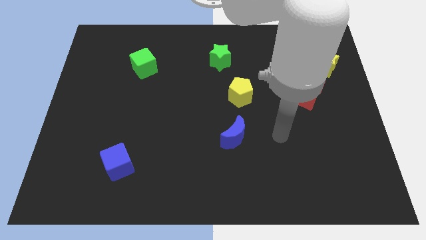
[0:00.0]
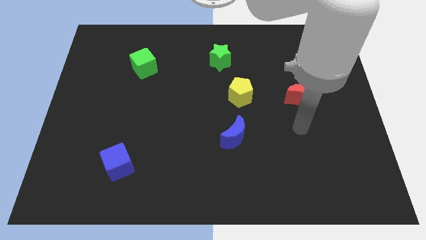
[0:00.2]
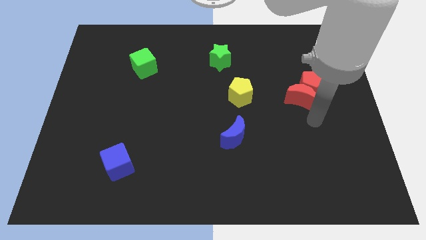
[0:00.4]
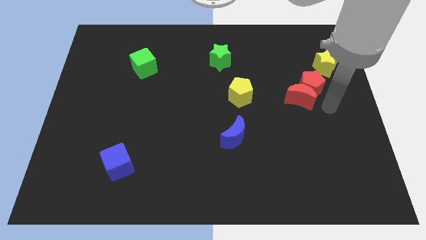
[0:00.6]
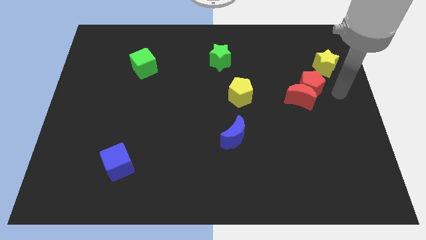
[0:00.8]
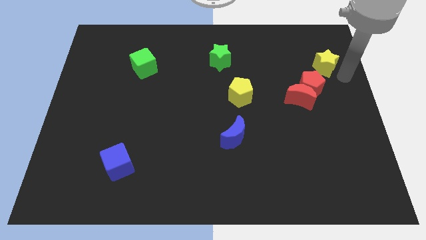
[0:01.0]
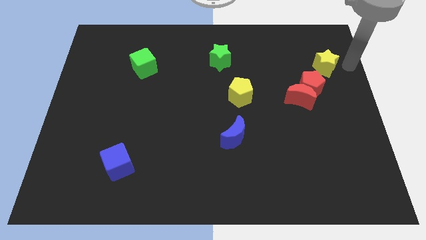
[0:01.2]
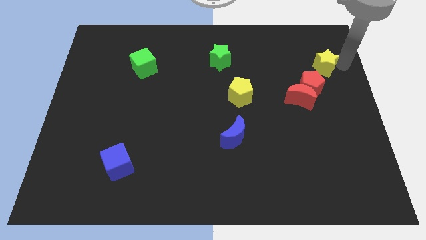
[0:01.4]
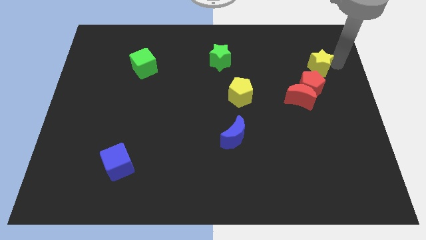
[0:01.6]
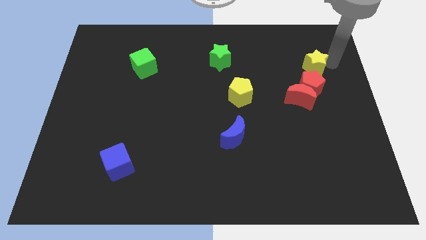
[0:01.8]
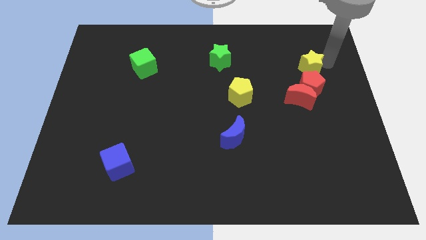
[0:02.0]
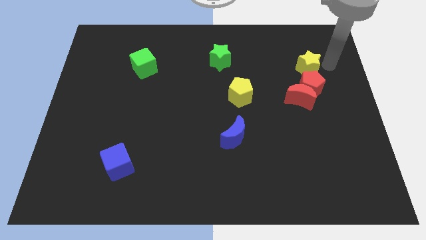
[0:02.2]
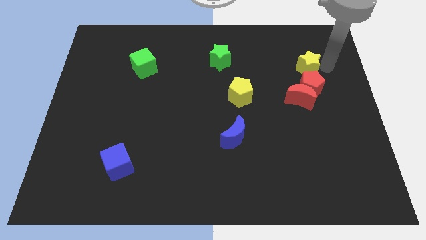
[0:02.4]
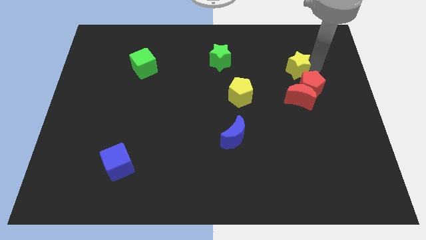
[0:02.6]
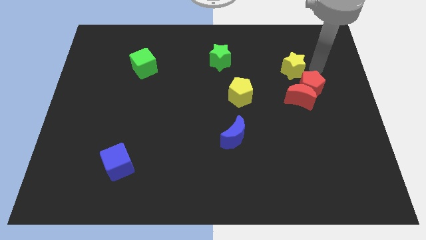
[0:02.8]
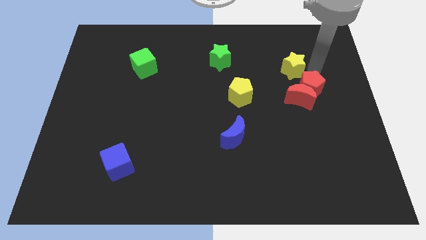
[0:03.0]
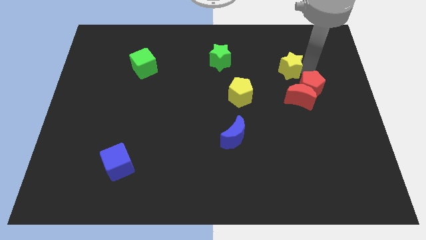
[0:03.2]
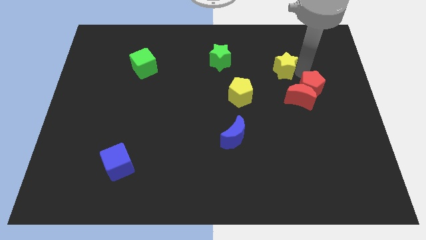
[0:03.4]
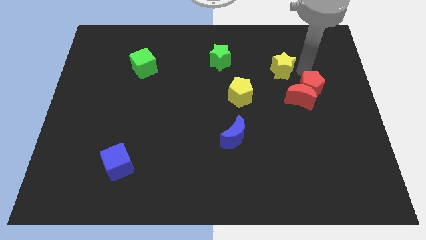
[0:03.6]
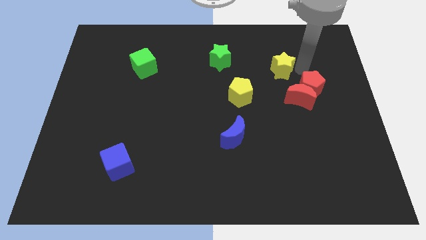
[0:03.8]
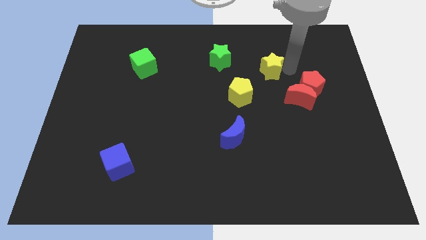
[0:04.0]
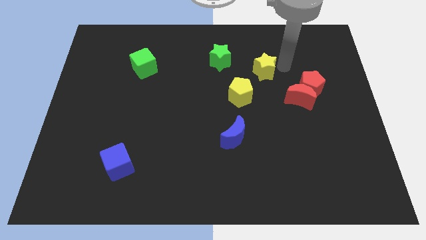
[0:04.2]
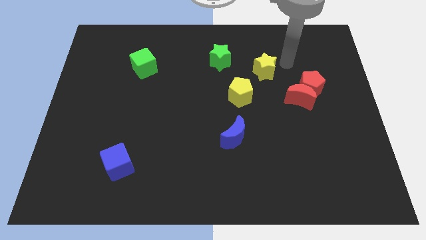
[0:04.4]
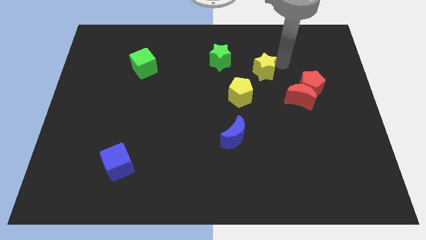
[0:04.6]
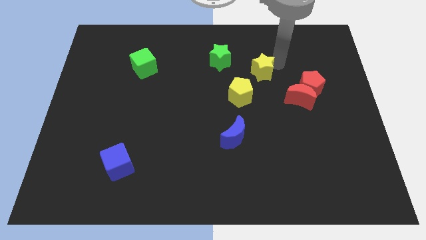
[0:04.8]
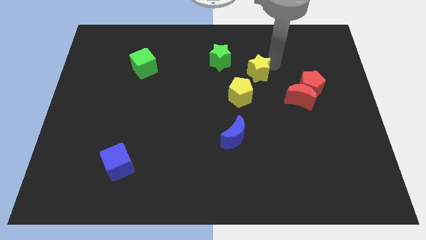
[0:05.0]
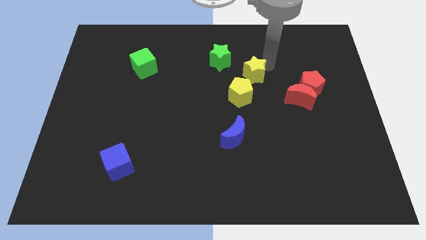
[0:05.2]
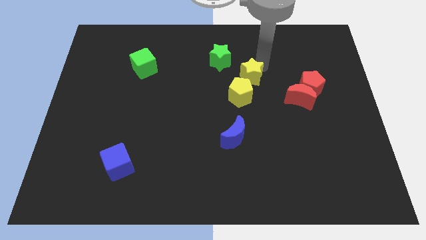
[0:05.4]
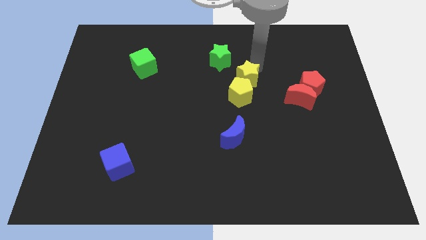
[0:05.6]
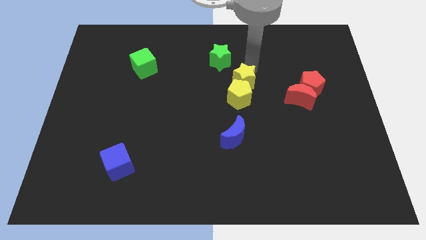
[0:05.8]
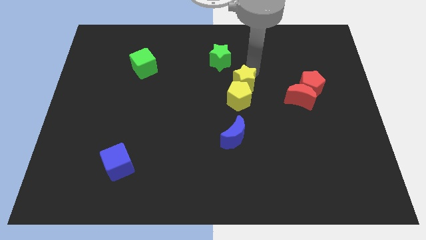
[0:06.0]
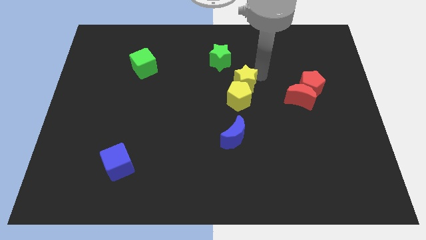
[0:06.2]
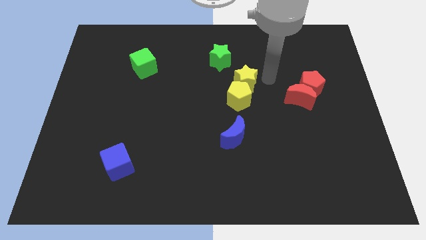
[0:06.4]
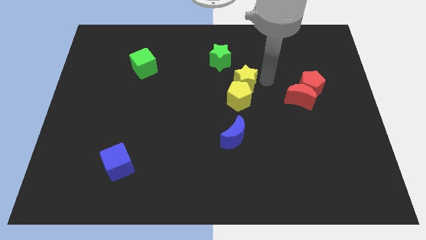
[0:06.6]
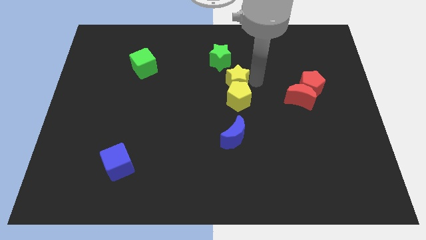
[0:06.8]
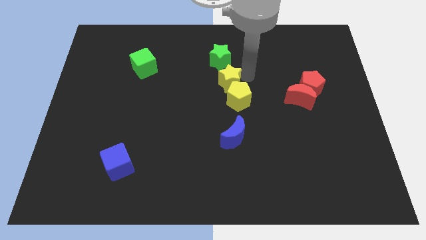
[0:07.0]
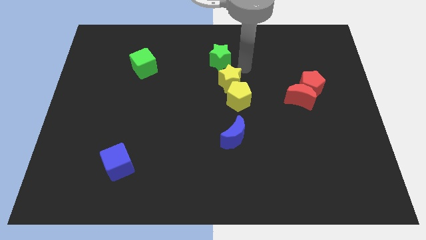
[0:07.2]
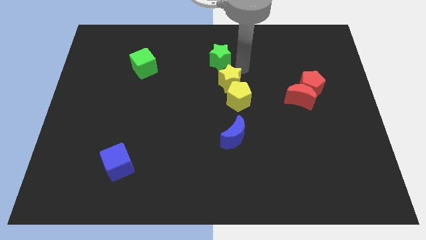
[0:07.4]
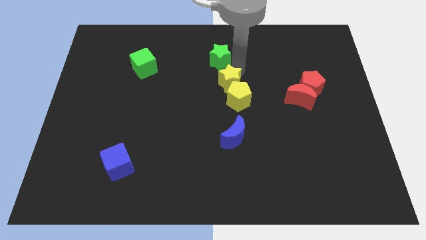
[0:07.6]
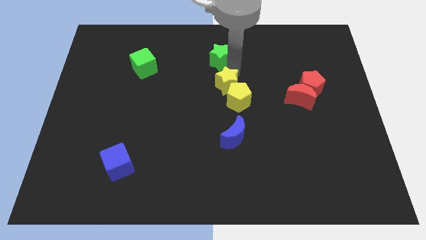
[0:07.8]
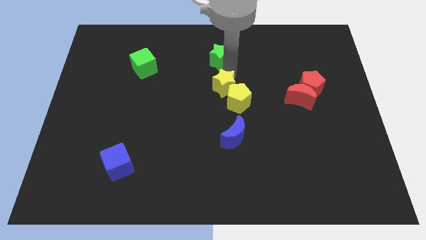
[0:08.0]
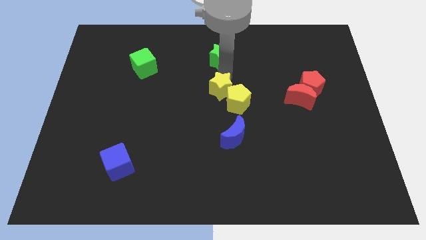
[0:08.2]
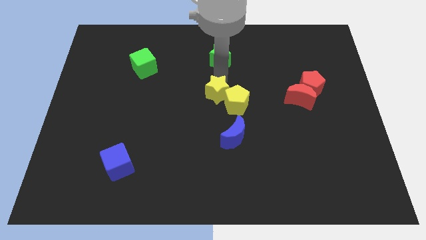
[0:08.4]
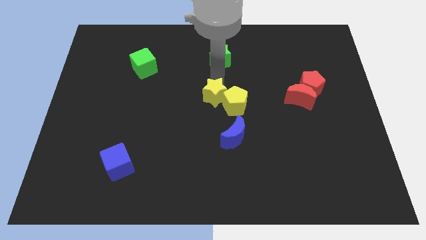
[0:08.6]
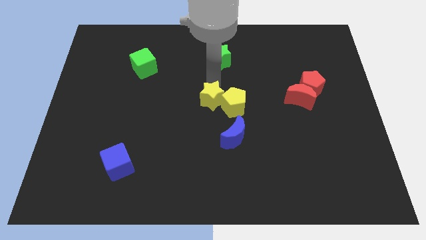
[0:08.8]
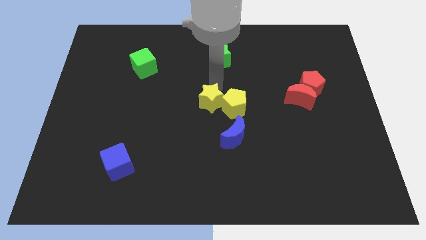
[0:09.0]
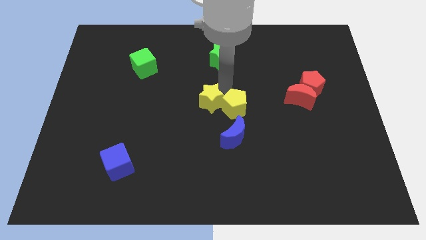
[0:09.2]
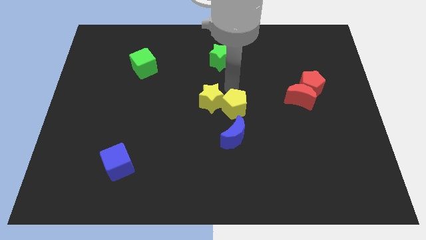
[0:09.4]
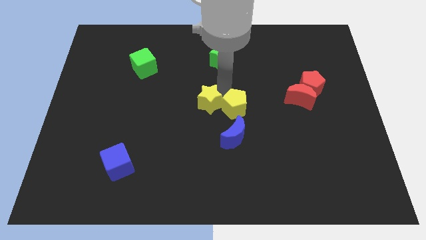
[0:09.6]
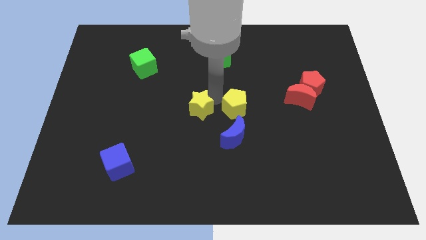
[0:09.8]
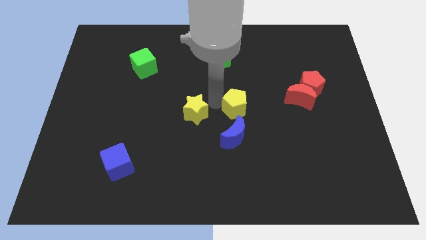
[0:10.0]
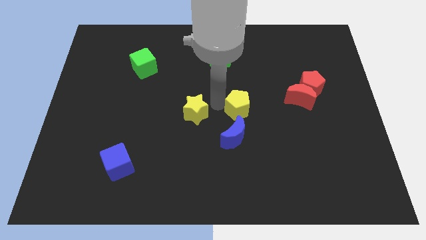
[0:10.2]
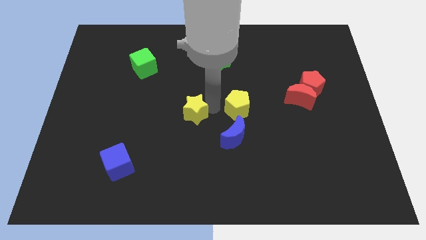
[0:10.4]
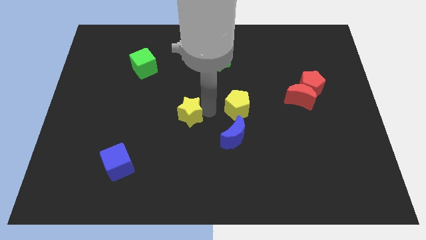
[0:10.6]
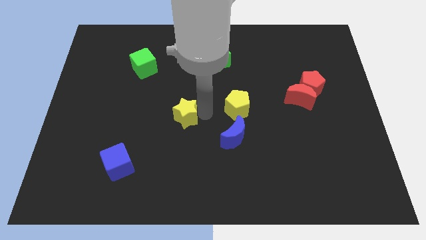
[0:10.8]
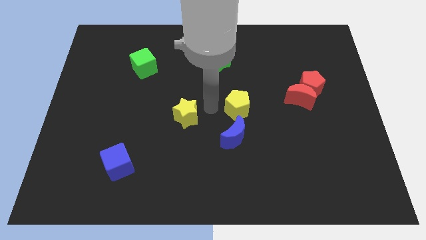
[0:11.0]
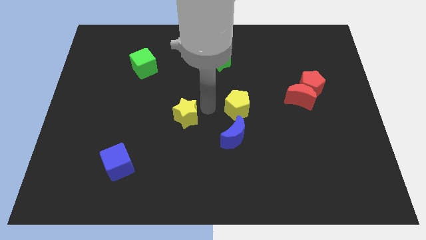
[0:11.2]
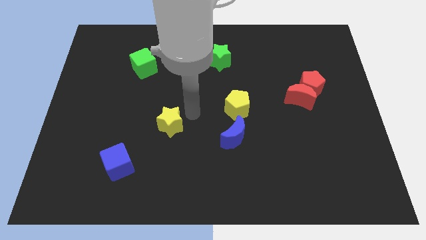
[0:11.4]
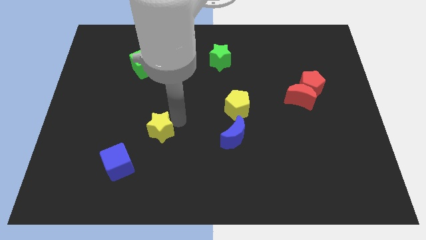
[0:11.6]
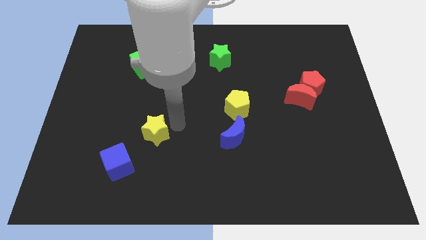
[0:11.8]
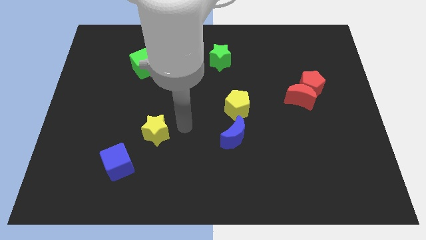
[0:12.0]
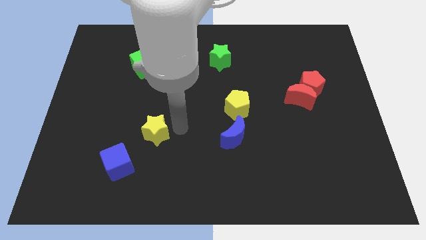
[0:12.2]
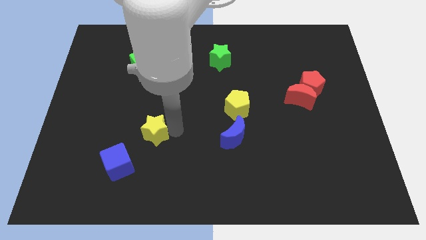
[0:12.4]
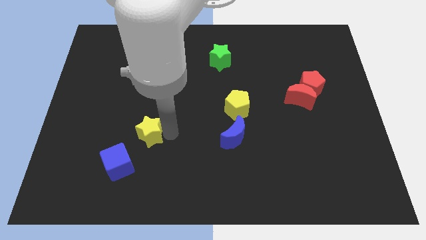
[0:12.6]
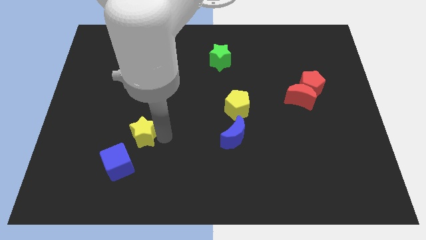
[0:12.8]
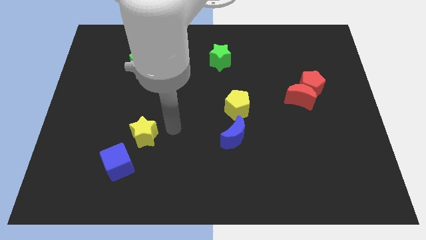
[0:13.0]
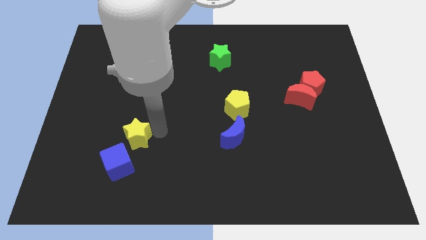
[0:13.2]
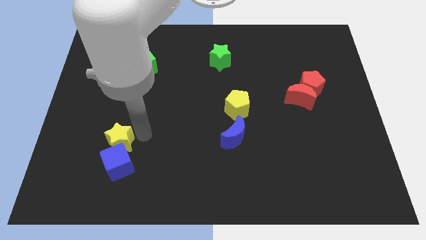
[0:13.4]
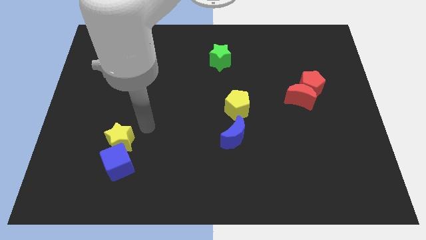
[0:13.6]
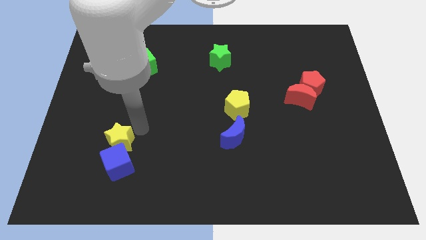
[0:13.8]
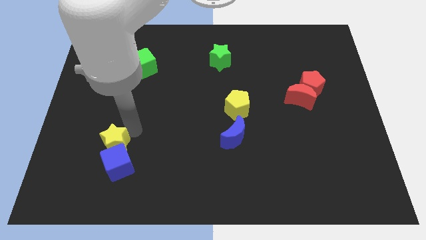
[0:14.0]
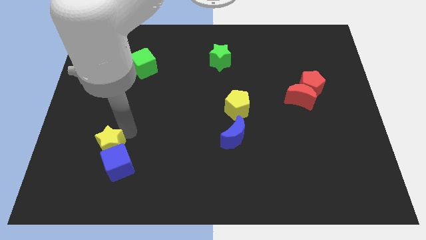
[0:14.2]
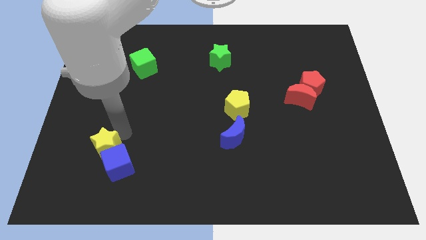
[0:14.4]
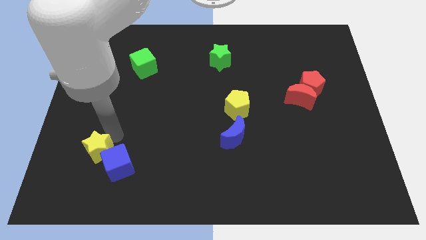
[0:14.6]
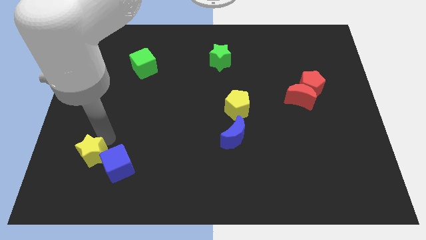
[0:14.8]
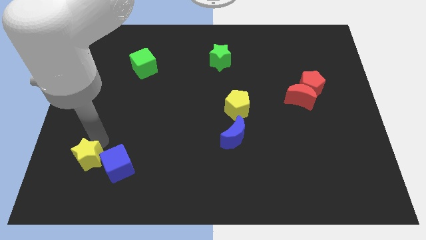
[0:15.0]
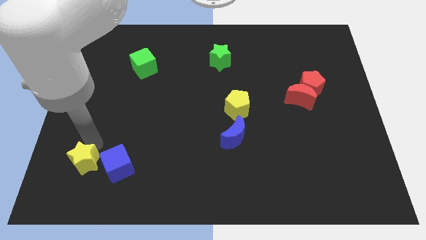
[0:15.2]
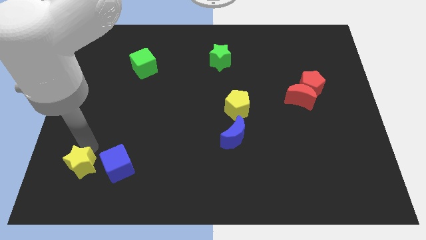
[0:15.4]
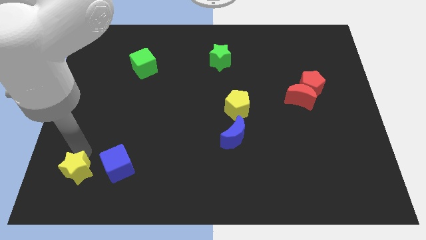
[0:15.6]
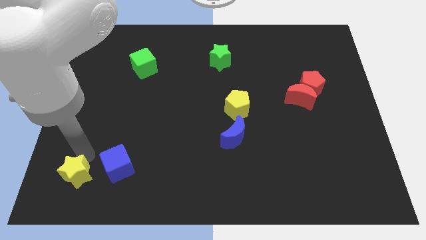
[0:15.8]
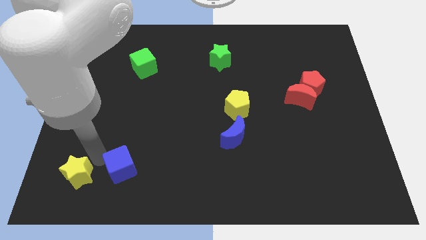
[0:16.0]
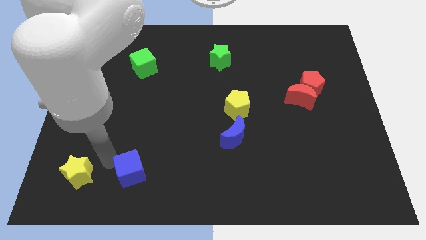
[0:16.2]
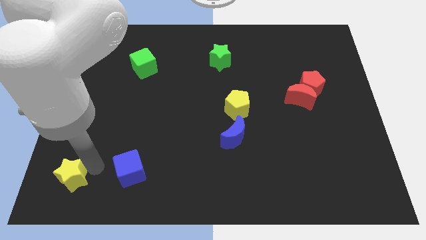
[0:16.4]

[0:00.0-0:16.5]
move the yellow star to the lower left corner
